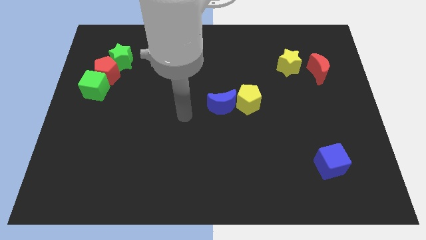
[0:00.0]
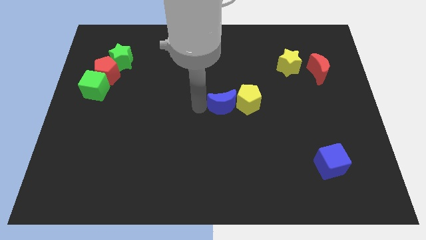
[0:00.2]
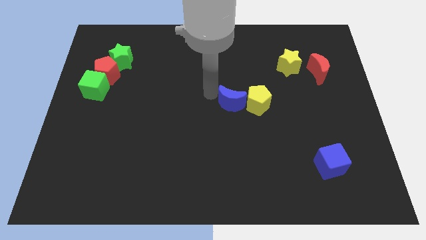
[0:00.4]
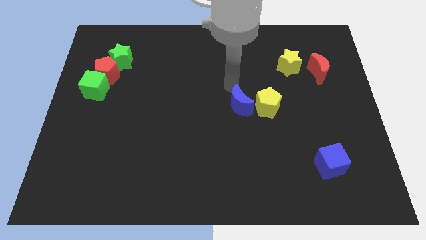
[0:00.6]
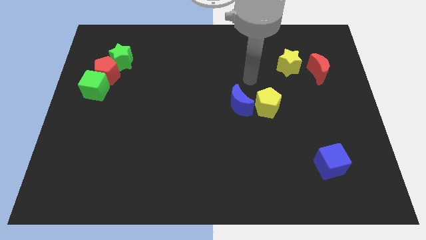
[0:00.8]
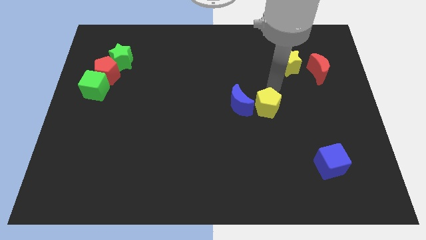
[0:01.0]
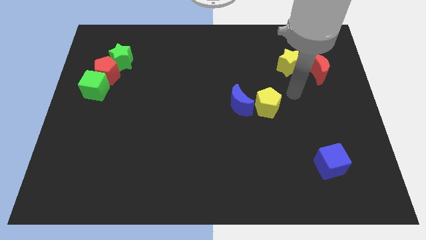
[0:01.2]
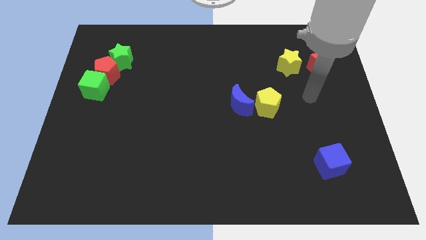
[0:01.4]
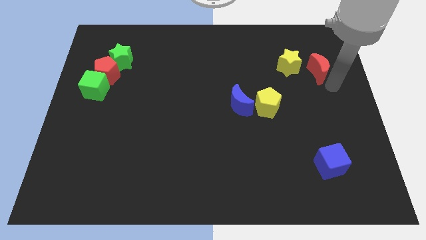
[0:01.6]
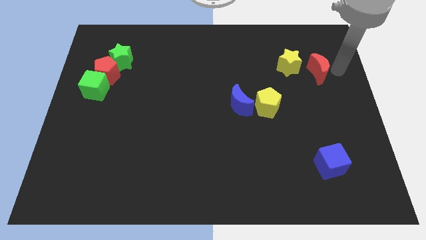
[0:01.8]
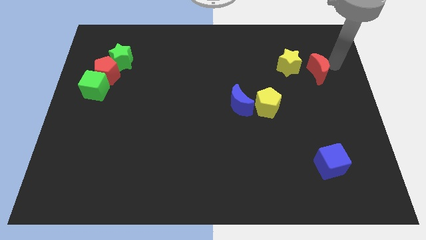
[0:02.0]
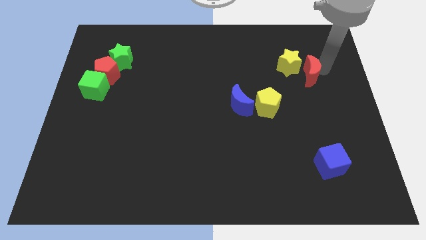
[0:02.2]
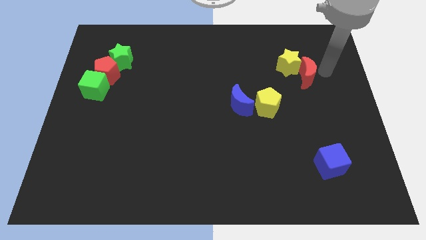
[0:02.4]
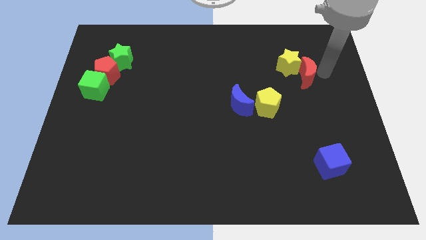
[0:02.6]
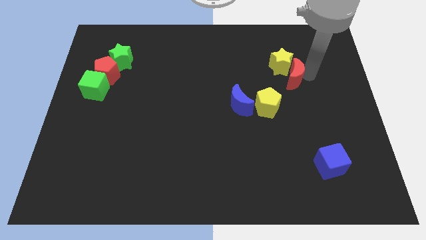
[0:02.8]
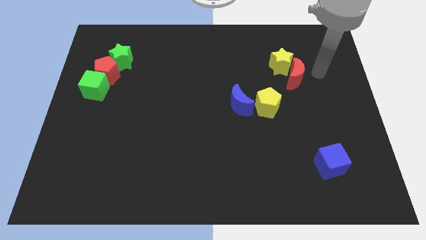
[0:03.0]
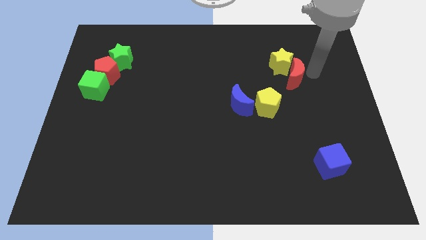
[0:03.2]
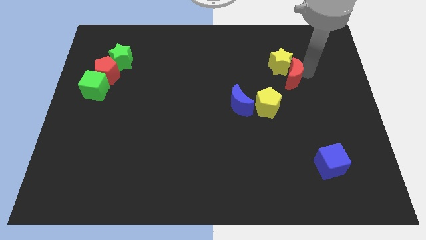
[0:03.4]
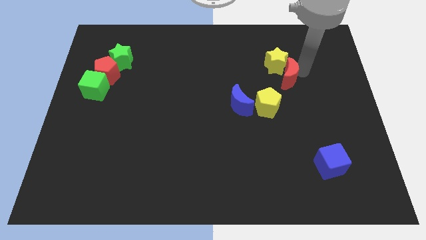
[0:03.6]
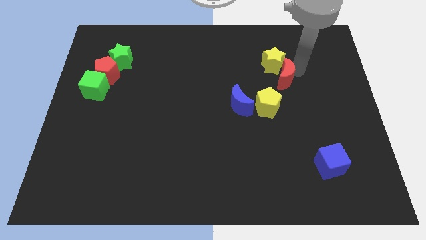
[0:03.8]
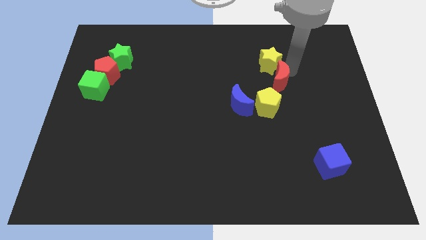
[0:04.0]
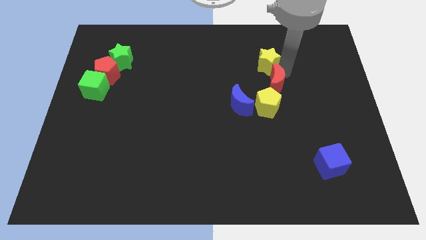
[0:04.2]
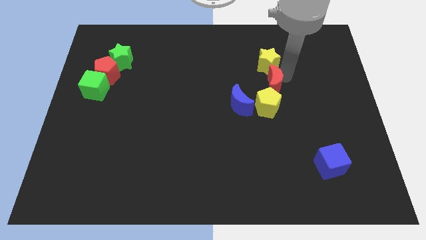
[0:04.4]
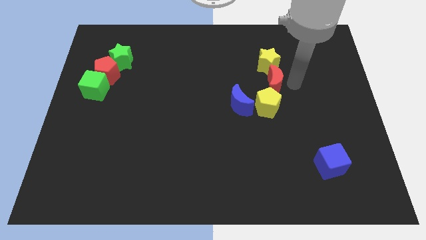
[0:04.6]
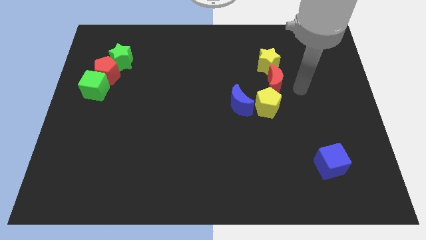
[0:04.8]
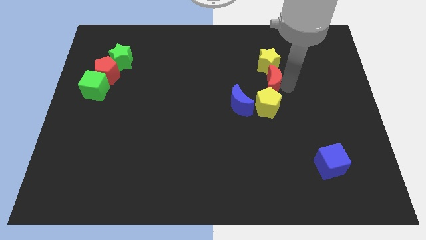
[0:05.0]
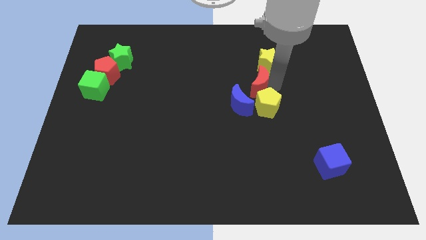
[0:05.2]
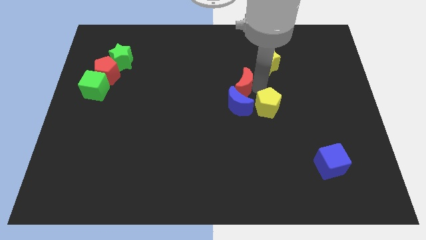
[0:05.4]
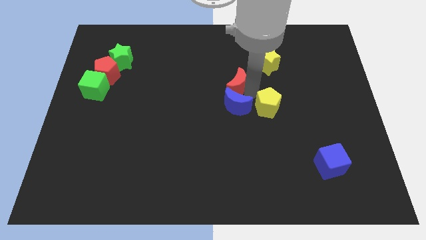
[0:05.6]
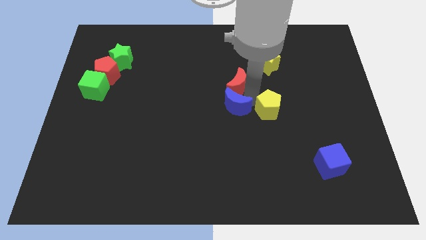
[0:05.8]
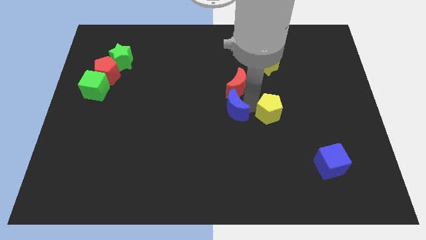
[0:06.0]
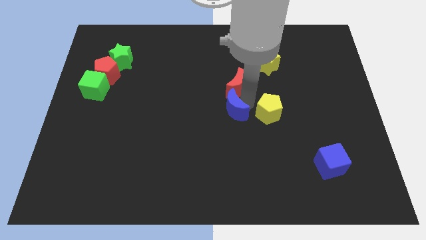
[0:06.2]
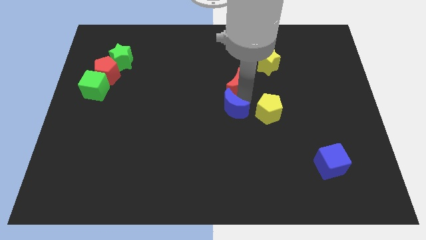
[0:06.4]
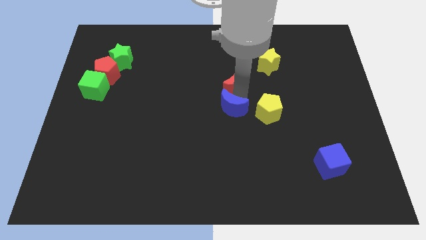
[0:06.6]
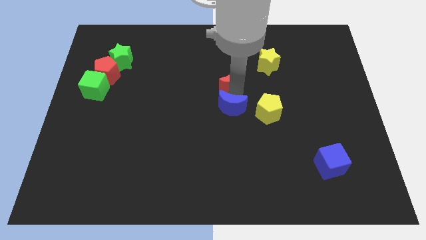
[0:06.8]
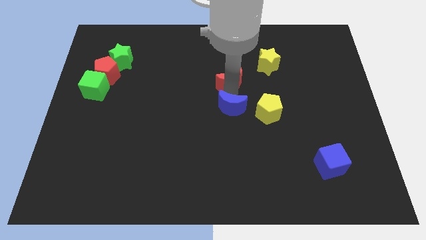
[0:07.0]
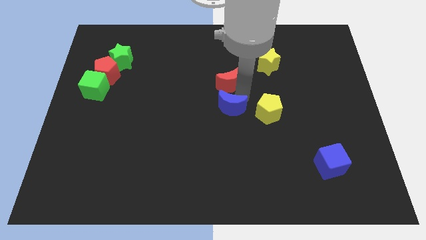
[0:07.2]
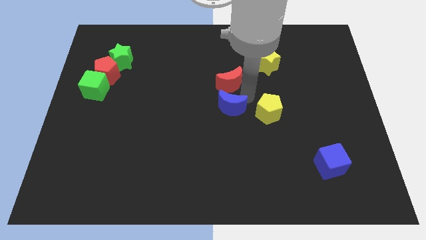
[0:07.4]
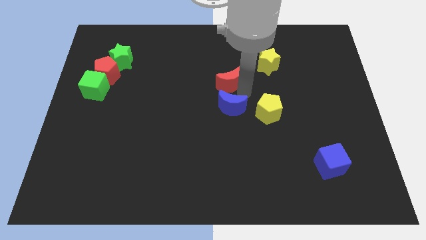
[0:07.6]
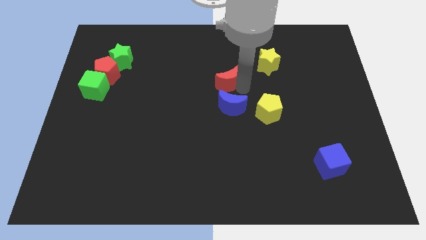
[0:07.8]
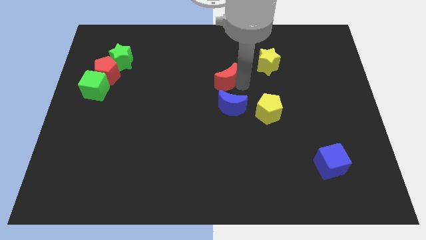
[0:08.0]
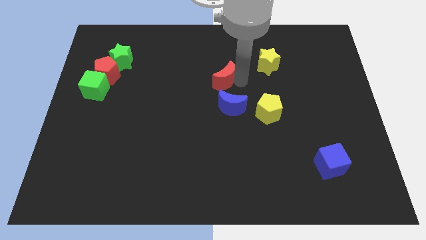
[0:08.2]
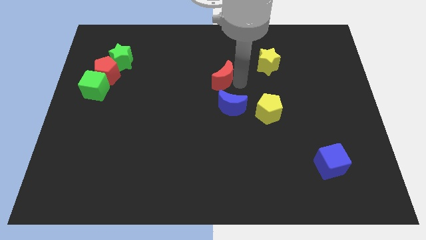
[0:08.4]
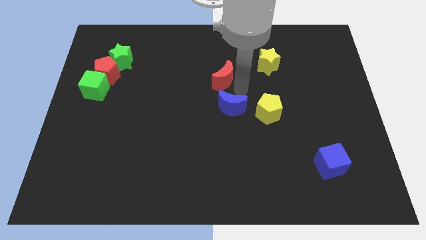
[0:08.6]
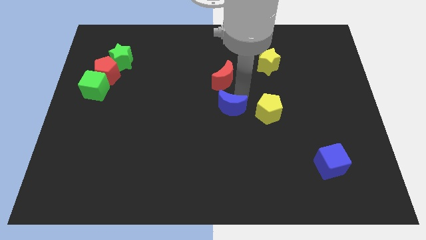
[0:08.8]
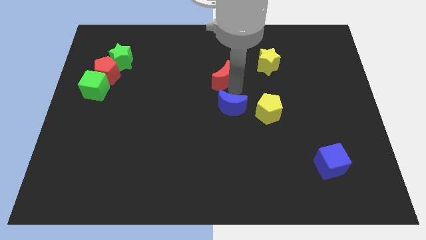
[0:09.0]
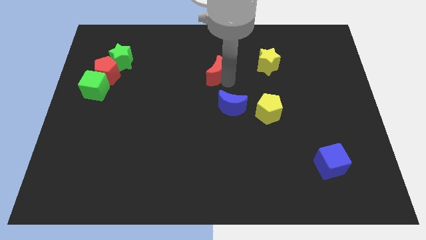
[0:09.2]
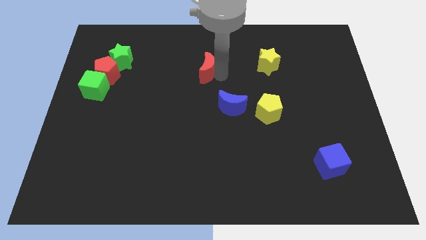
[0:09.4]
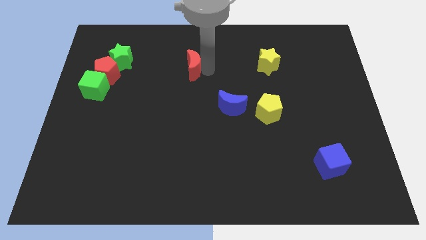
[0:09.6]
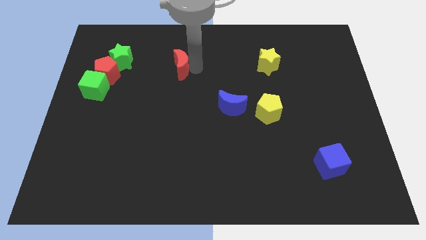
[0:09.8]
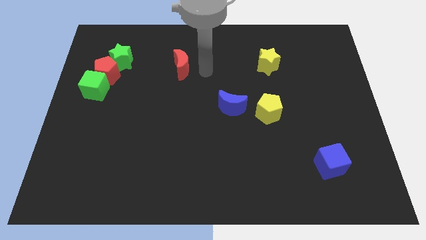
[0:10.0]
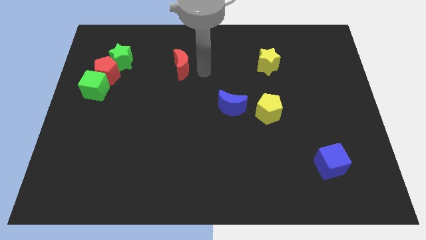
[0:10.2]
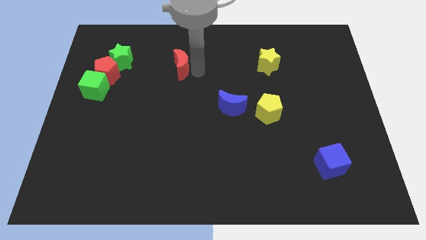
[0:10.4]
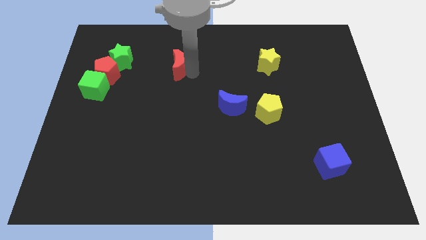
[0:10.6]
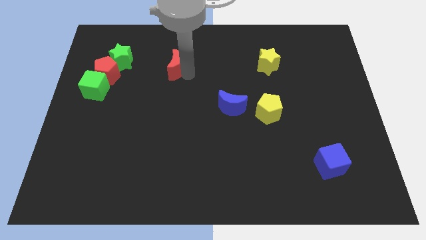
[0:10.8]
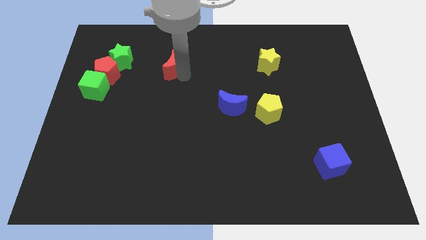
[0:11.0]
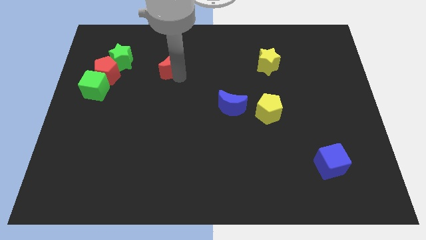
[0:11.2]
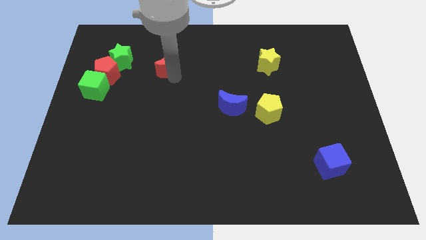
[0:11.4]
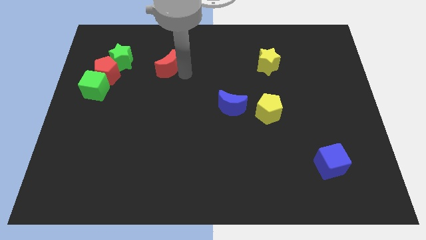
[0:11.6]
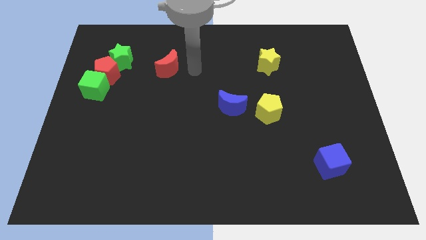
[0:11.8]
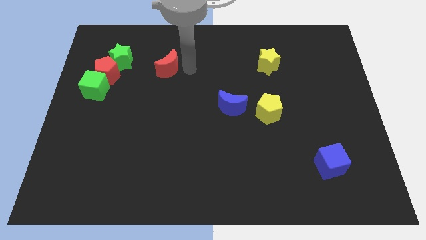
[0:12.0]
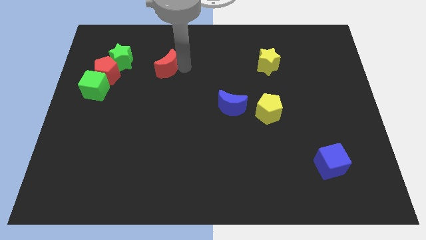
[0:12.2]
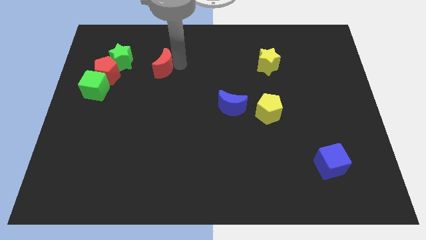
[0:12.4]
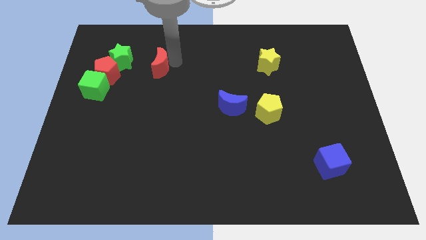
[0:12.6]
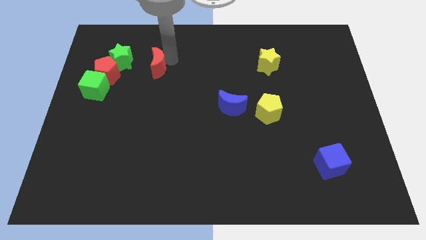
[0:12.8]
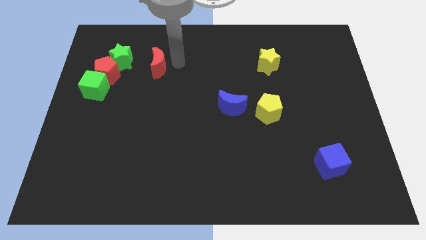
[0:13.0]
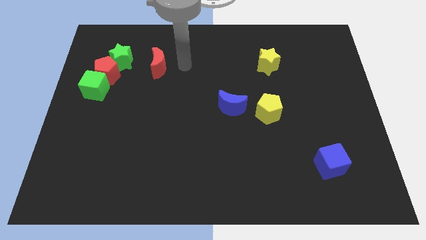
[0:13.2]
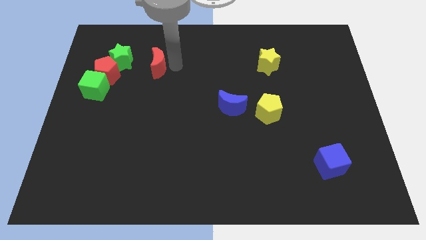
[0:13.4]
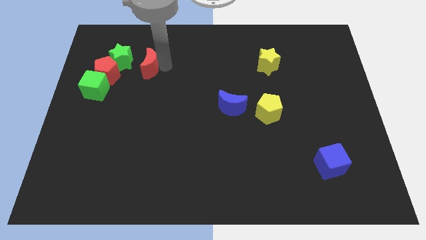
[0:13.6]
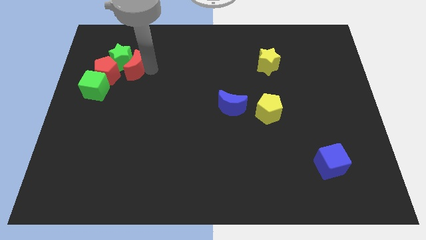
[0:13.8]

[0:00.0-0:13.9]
put the red moon towards the green star

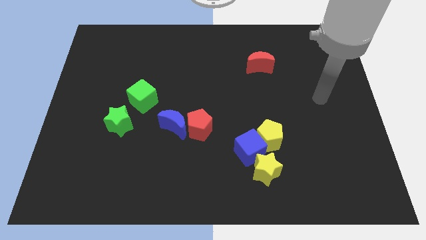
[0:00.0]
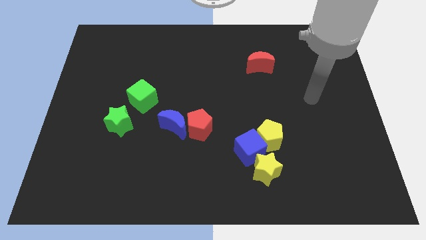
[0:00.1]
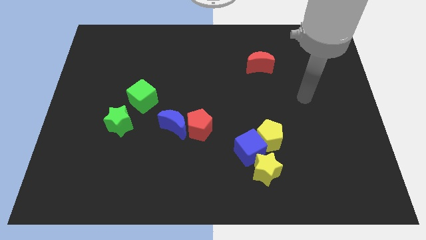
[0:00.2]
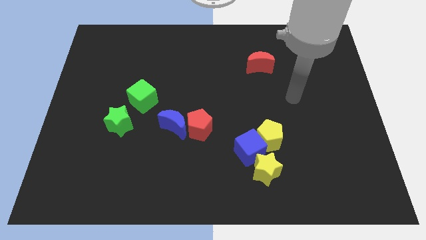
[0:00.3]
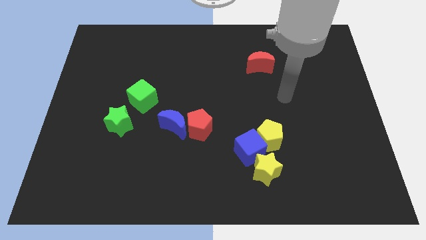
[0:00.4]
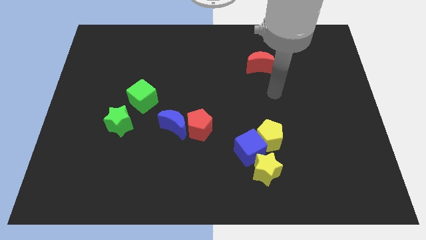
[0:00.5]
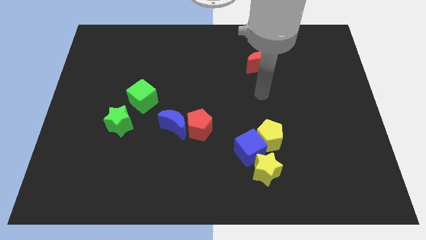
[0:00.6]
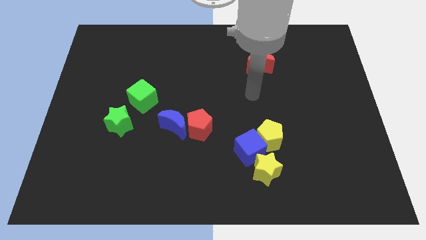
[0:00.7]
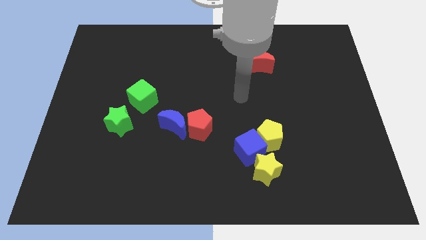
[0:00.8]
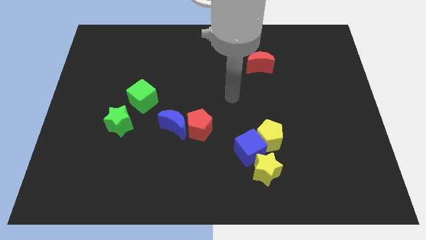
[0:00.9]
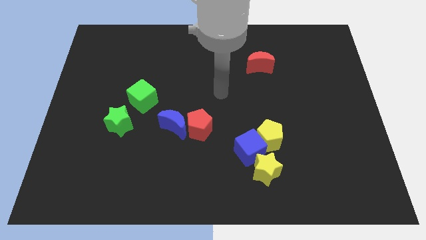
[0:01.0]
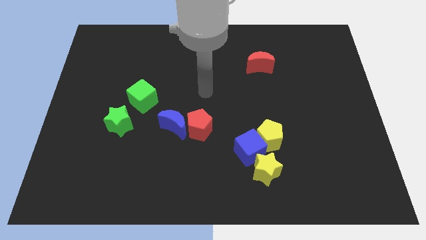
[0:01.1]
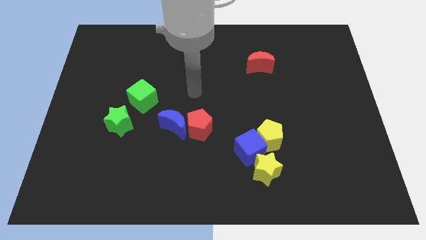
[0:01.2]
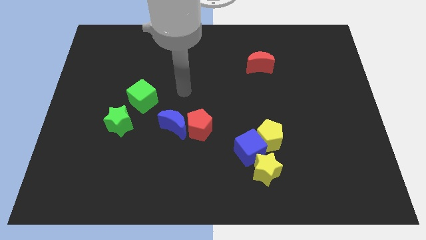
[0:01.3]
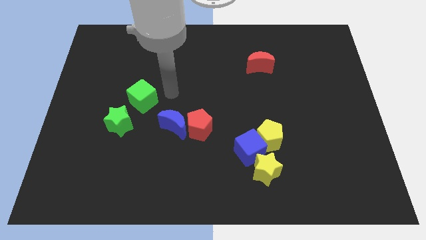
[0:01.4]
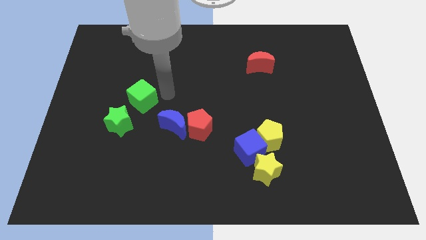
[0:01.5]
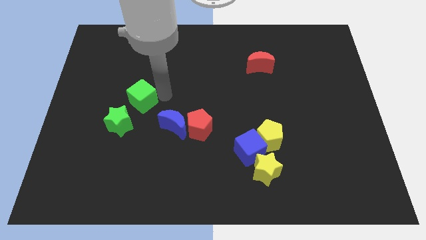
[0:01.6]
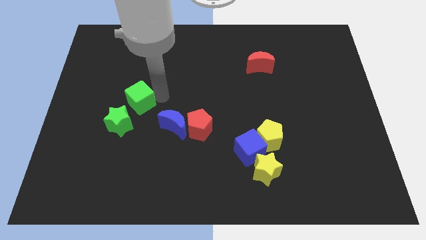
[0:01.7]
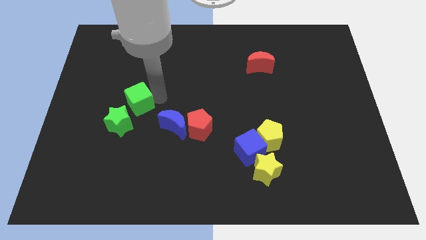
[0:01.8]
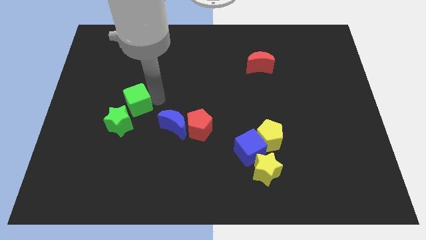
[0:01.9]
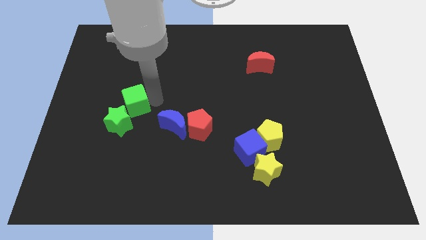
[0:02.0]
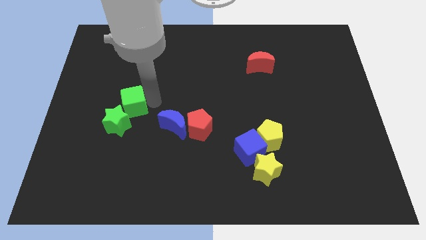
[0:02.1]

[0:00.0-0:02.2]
slide the green cube next to the green star
